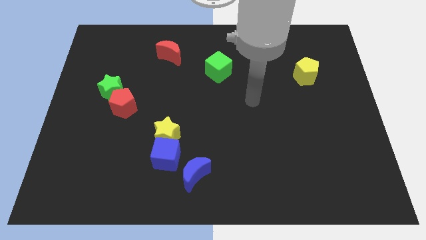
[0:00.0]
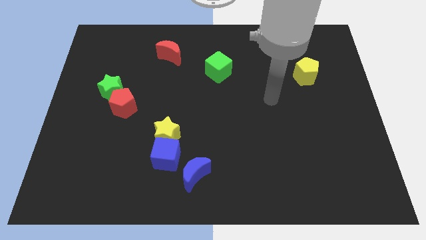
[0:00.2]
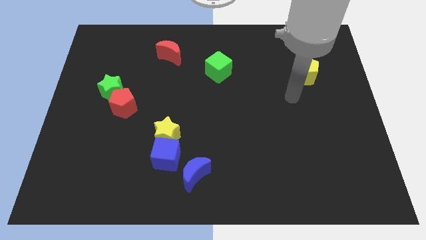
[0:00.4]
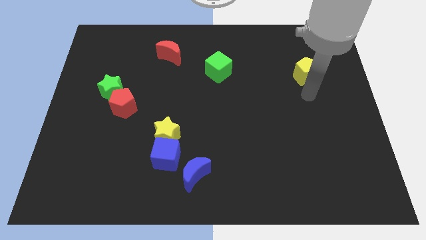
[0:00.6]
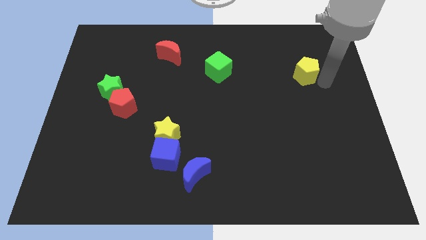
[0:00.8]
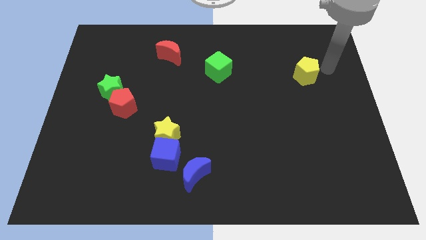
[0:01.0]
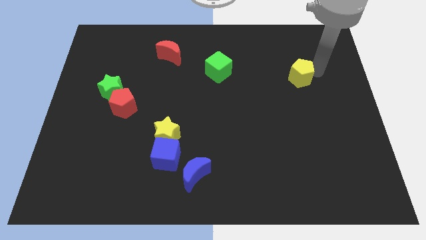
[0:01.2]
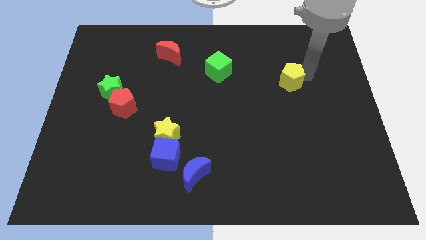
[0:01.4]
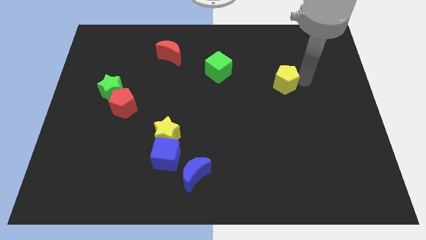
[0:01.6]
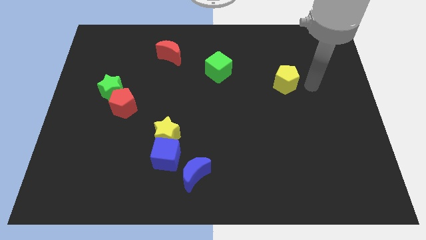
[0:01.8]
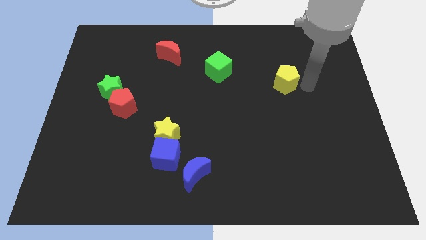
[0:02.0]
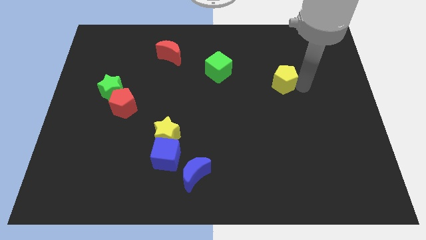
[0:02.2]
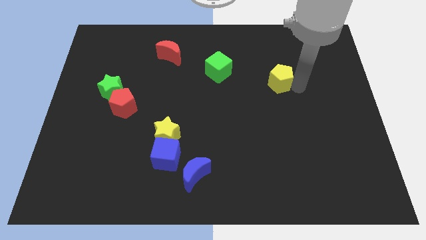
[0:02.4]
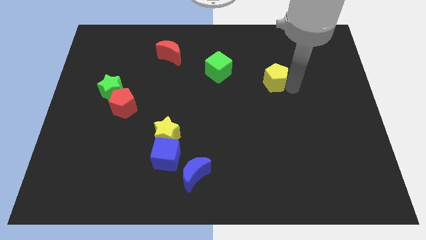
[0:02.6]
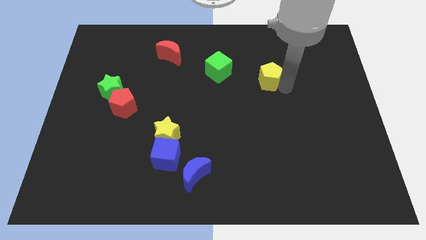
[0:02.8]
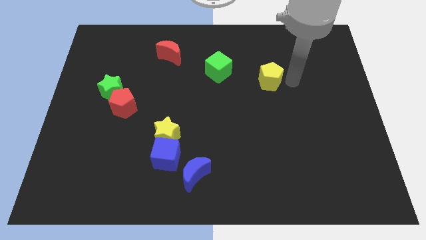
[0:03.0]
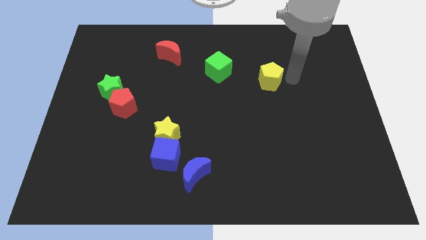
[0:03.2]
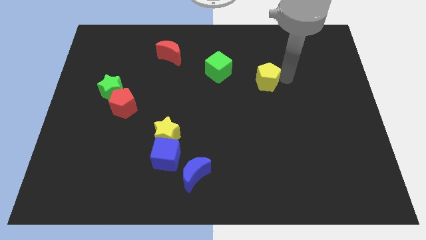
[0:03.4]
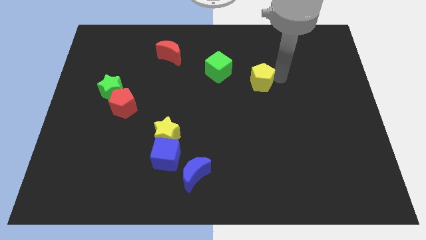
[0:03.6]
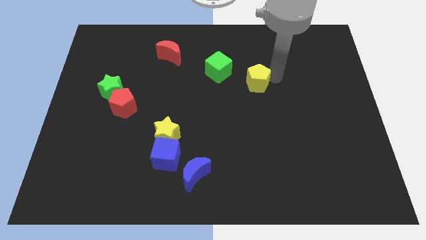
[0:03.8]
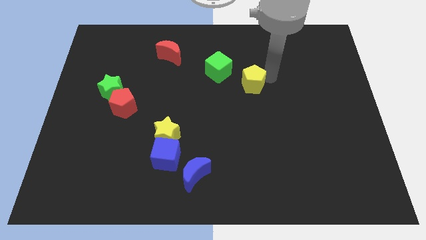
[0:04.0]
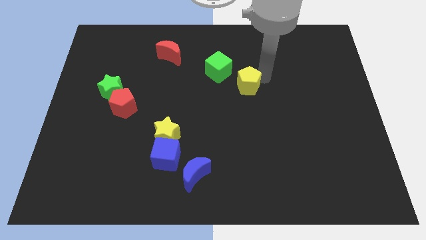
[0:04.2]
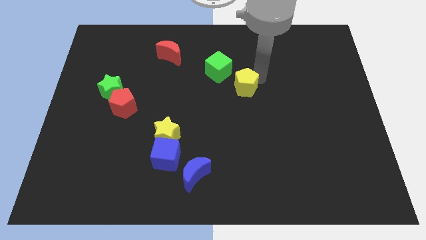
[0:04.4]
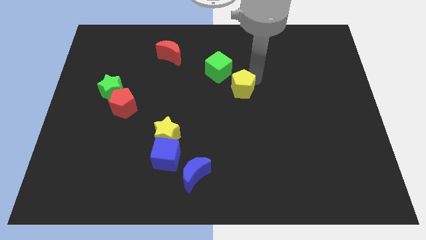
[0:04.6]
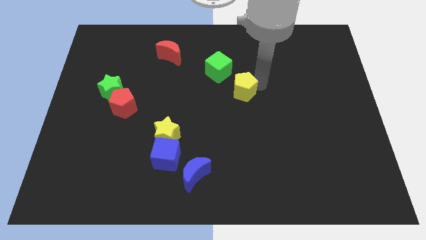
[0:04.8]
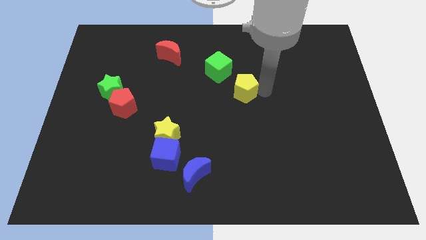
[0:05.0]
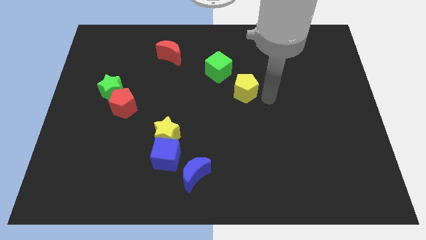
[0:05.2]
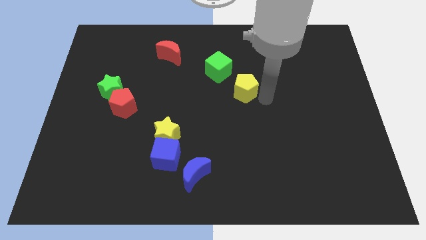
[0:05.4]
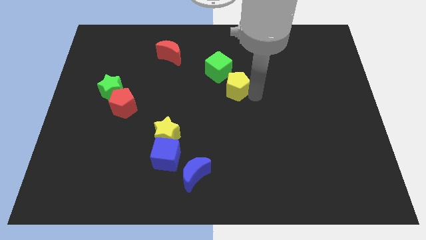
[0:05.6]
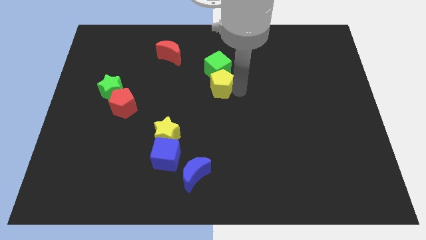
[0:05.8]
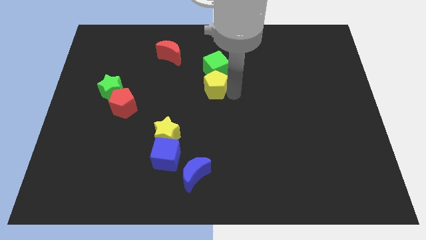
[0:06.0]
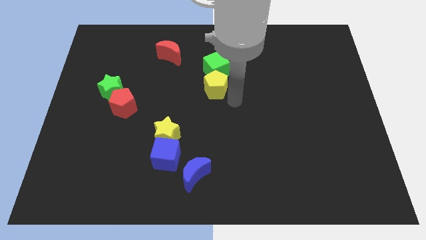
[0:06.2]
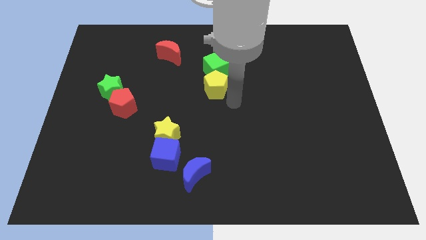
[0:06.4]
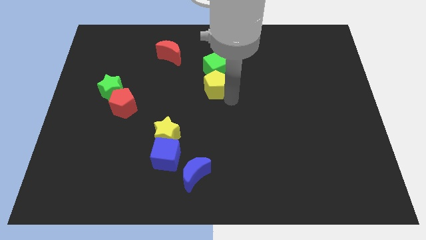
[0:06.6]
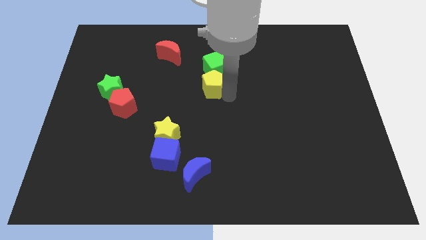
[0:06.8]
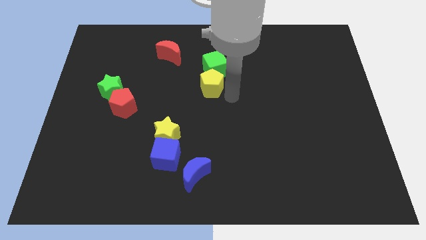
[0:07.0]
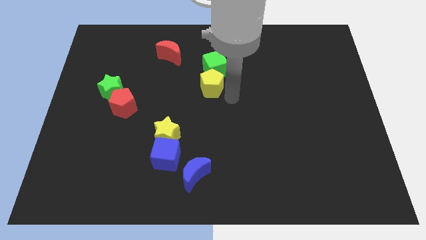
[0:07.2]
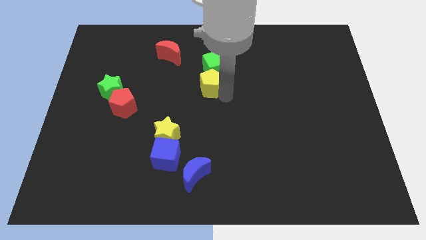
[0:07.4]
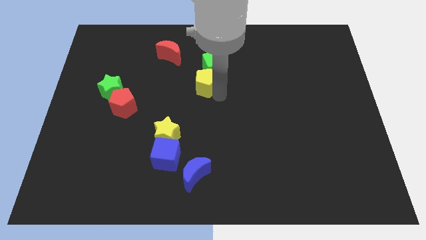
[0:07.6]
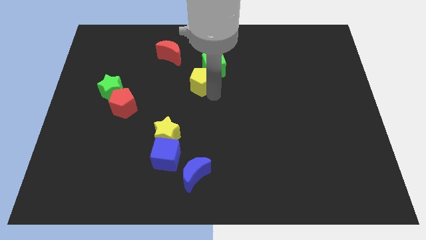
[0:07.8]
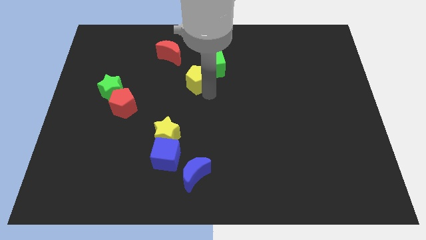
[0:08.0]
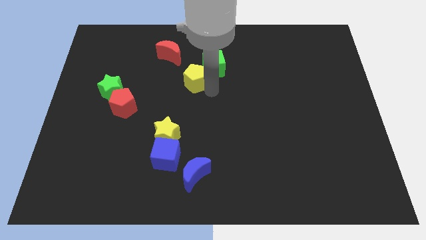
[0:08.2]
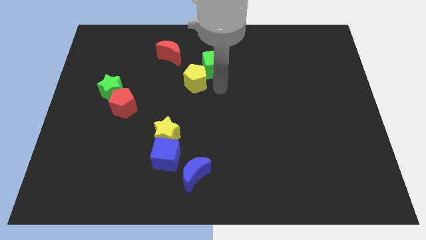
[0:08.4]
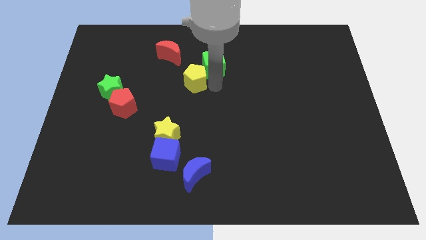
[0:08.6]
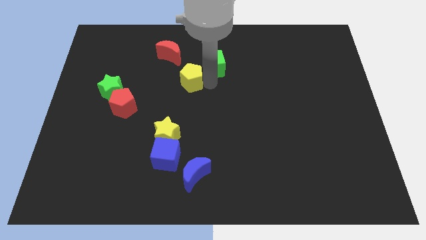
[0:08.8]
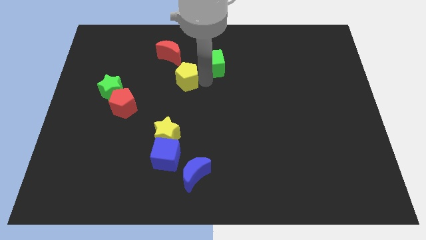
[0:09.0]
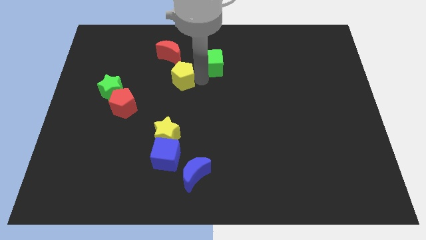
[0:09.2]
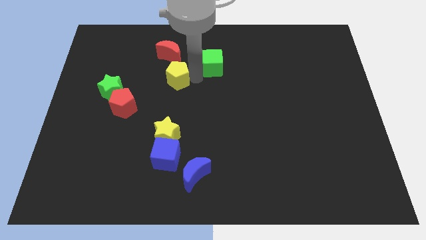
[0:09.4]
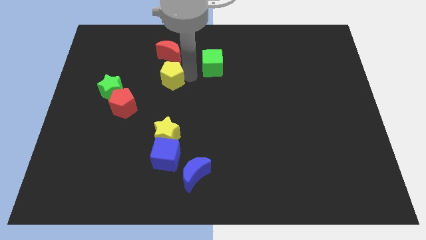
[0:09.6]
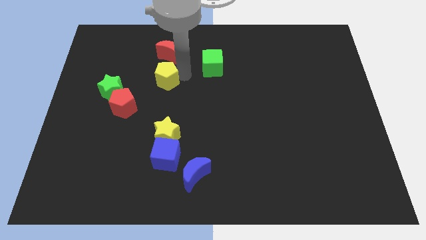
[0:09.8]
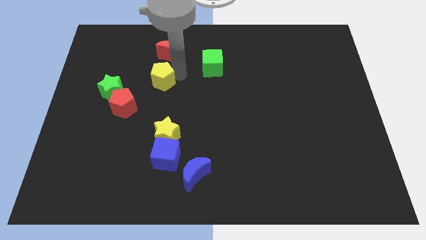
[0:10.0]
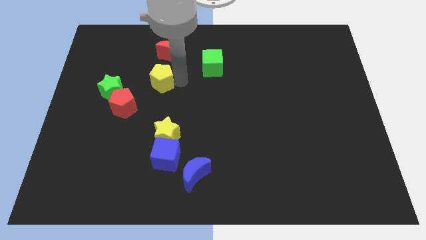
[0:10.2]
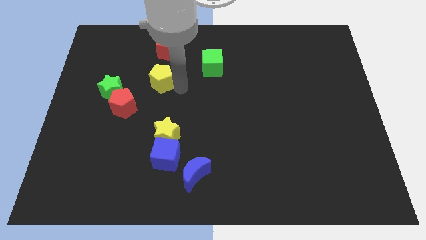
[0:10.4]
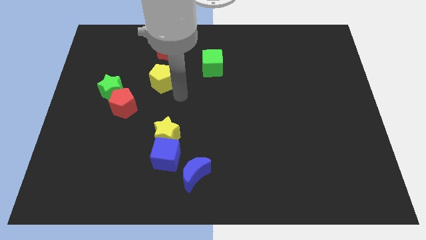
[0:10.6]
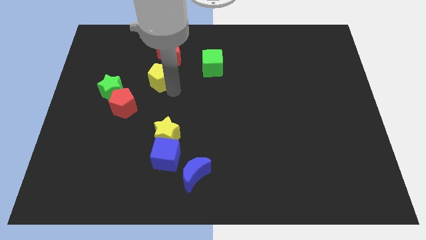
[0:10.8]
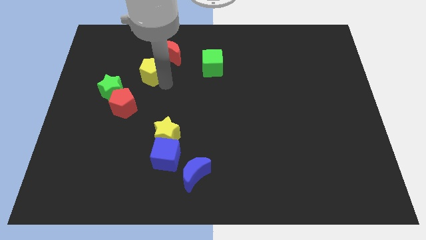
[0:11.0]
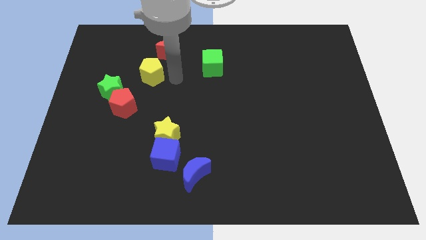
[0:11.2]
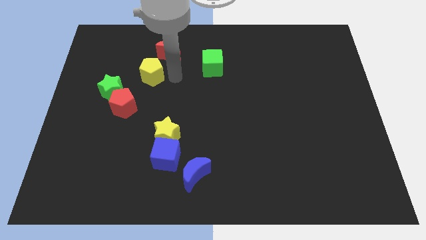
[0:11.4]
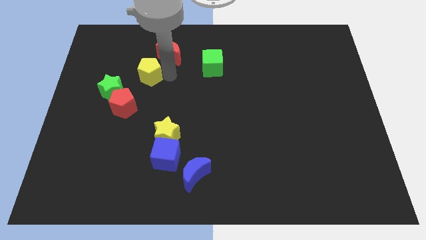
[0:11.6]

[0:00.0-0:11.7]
put the yellow pentagon to the top side of the red pentagon

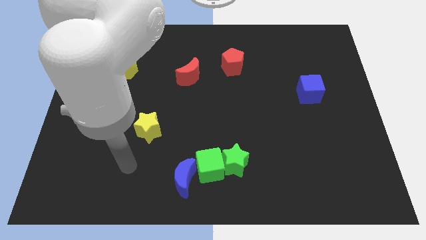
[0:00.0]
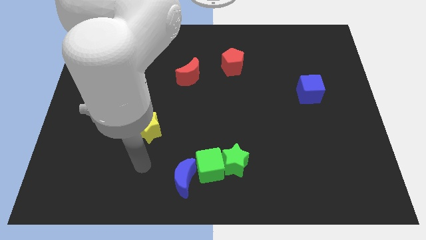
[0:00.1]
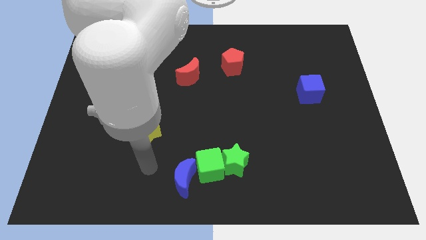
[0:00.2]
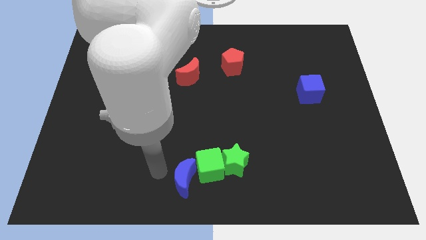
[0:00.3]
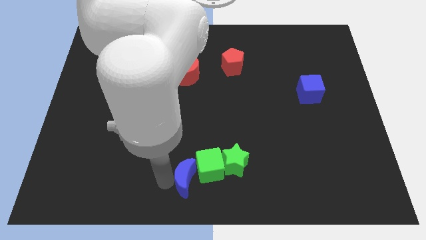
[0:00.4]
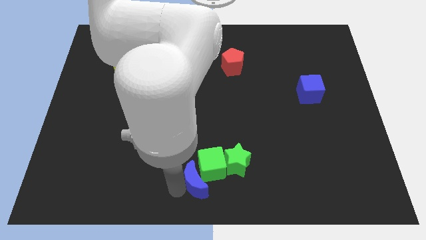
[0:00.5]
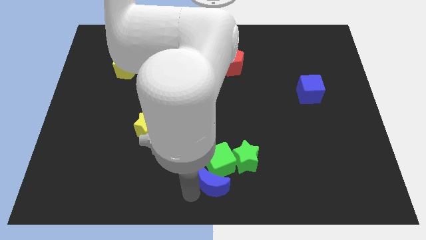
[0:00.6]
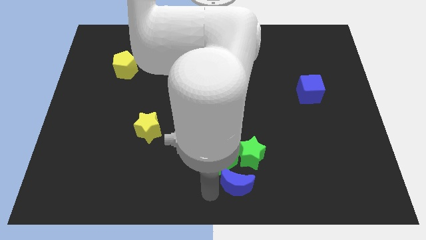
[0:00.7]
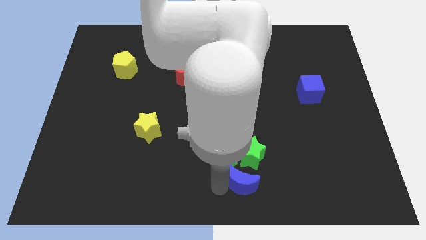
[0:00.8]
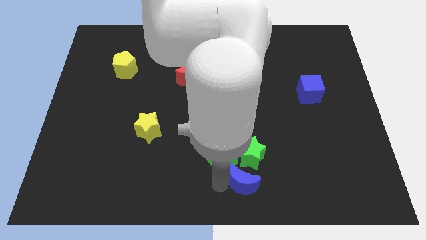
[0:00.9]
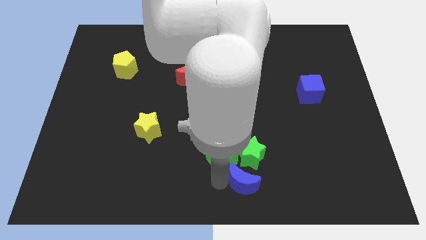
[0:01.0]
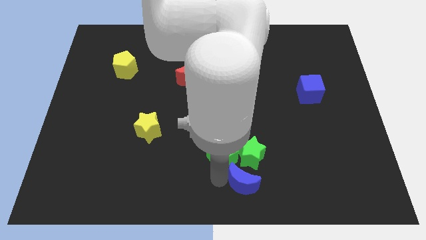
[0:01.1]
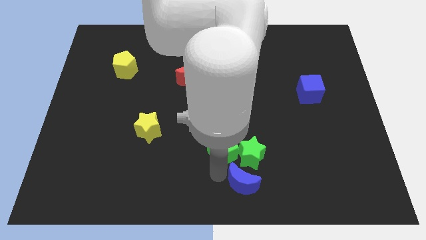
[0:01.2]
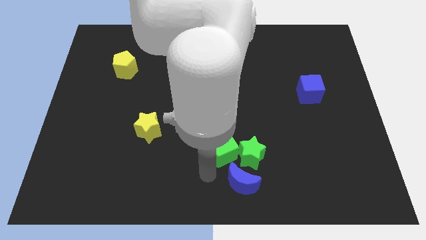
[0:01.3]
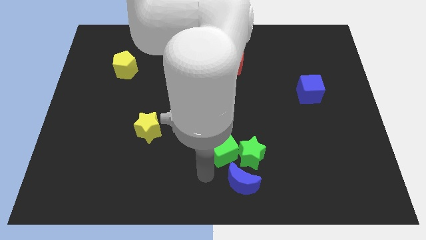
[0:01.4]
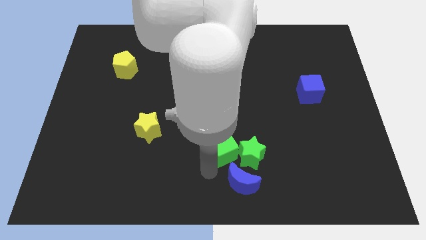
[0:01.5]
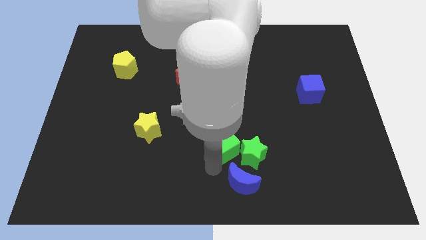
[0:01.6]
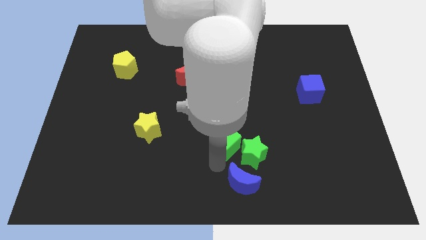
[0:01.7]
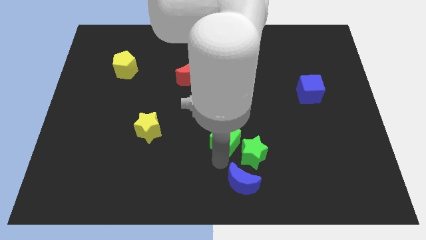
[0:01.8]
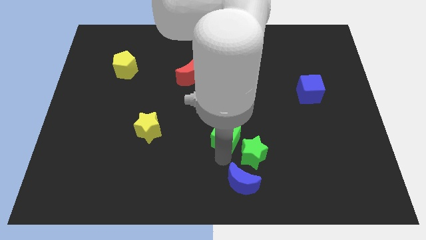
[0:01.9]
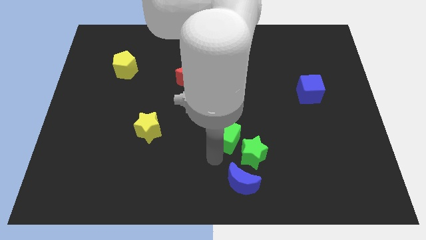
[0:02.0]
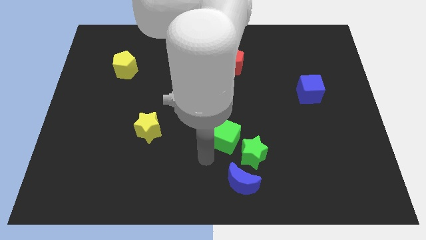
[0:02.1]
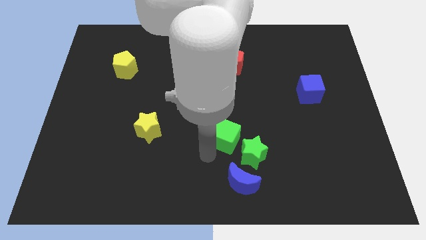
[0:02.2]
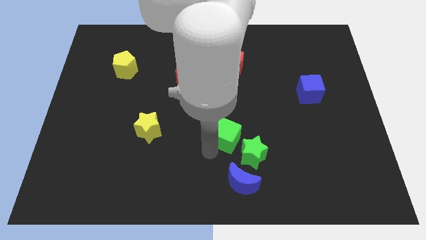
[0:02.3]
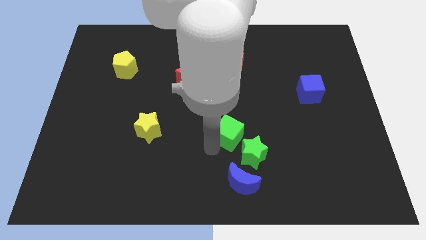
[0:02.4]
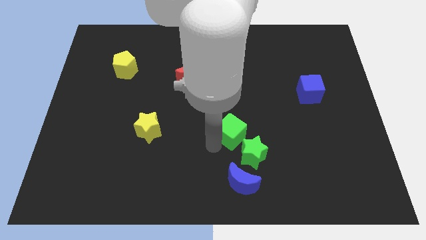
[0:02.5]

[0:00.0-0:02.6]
slide the green cube above the green star
